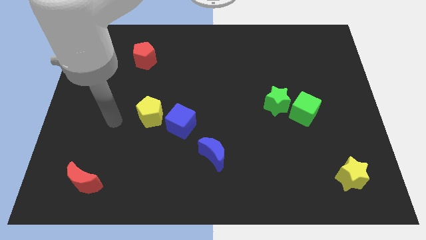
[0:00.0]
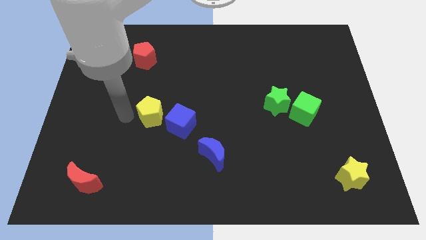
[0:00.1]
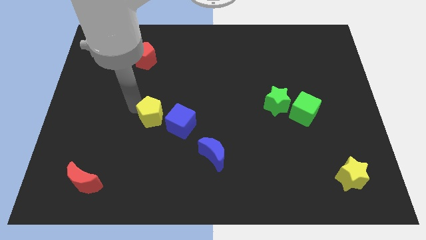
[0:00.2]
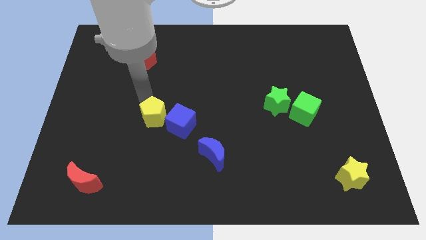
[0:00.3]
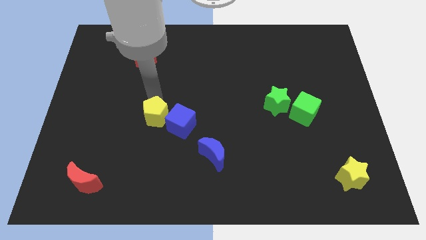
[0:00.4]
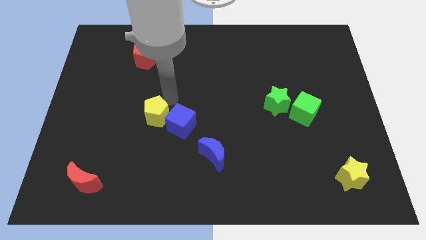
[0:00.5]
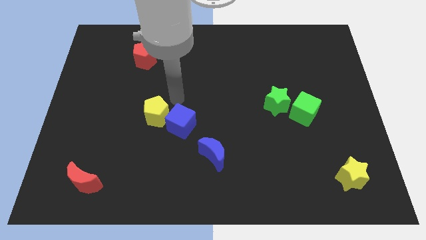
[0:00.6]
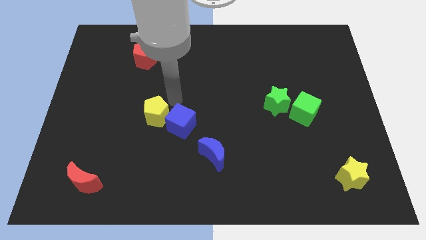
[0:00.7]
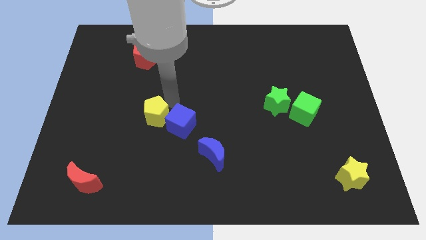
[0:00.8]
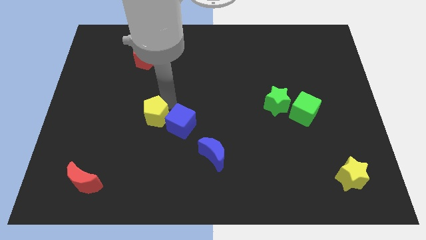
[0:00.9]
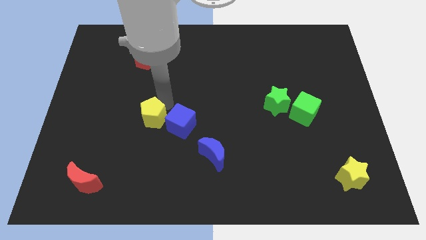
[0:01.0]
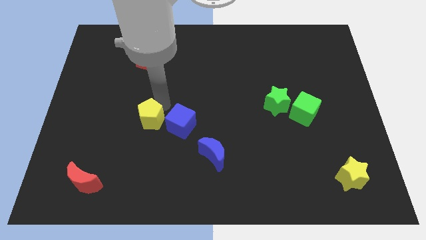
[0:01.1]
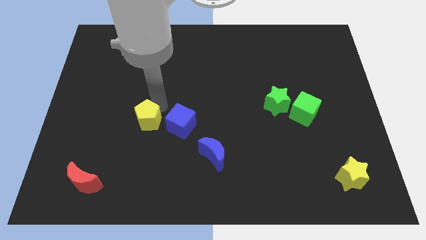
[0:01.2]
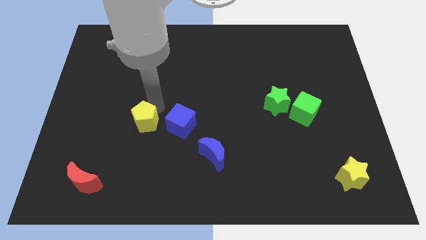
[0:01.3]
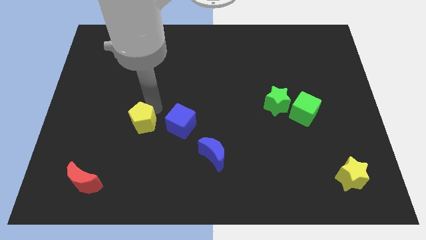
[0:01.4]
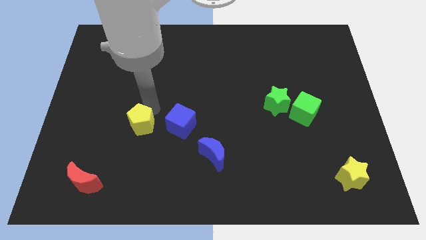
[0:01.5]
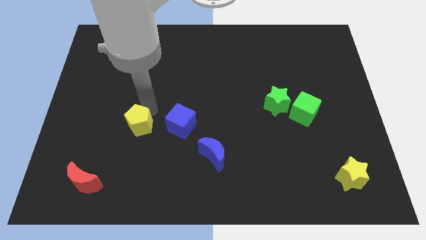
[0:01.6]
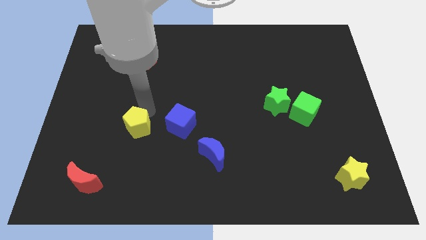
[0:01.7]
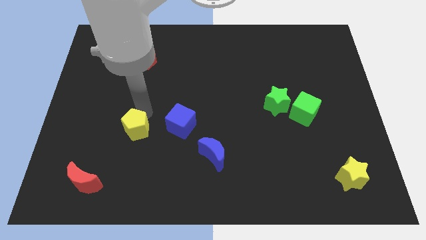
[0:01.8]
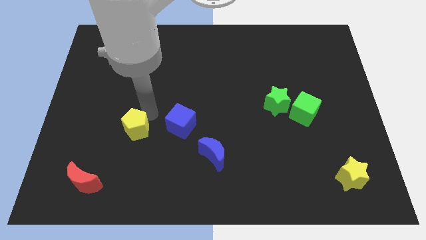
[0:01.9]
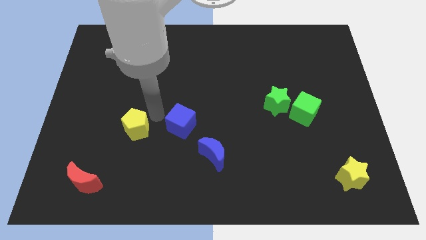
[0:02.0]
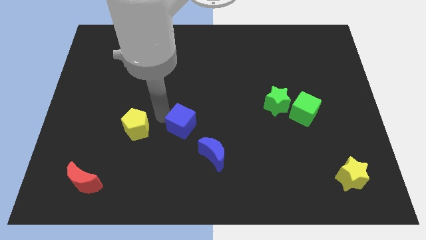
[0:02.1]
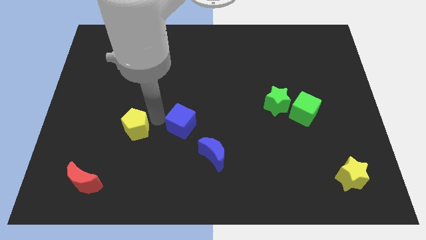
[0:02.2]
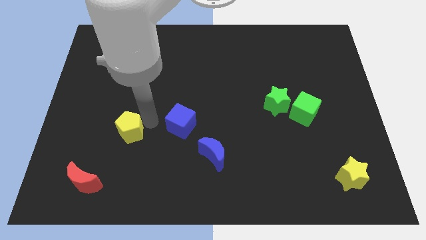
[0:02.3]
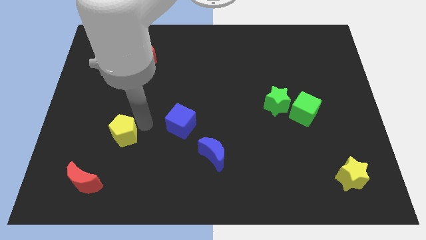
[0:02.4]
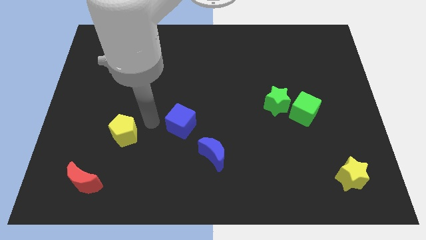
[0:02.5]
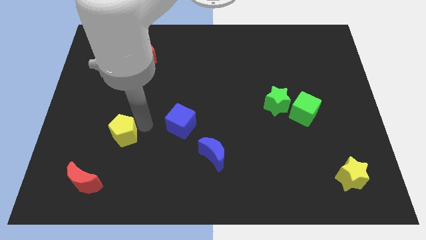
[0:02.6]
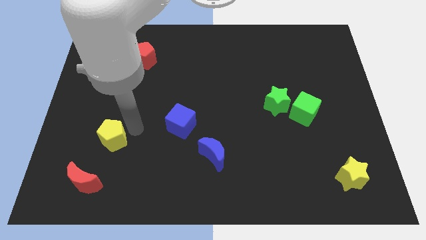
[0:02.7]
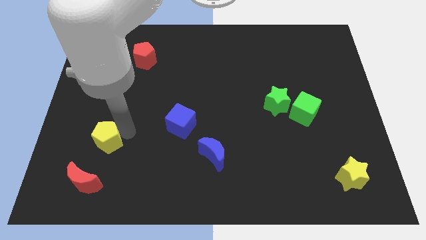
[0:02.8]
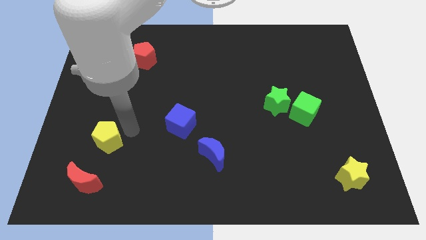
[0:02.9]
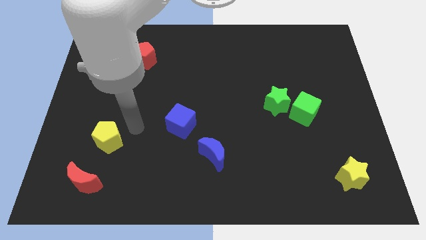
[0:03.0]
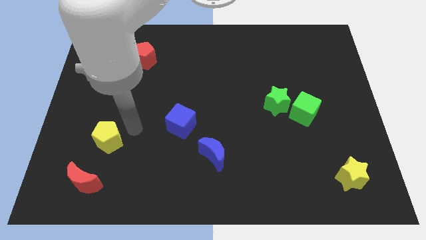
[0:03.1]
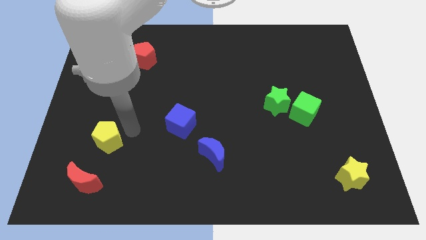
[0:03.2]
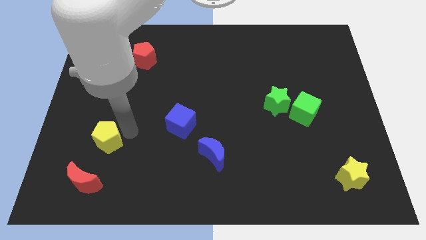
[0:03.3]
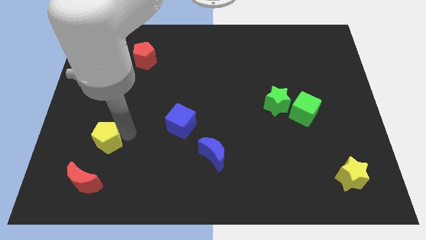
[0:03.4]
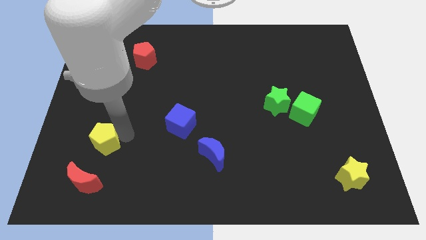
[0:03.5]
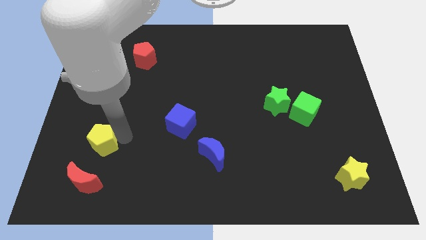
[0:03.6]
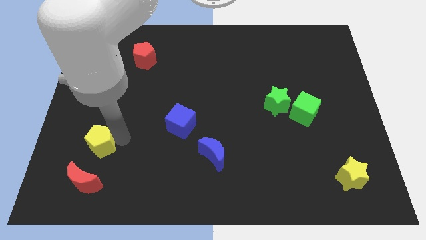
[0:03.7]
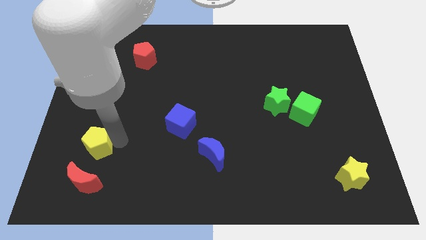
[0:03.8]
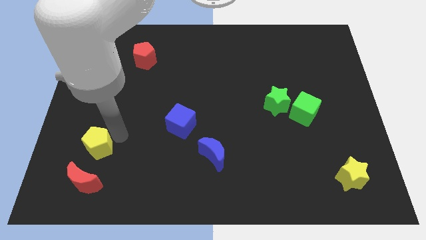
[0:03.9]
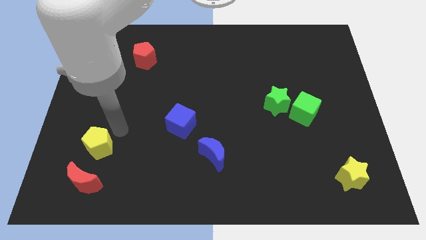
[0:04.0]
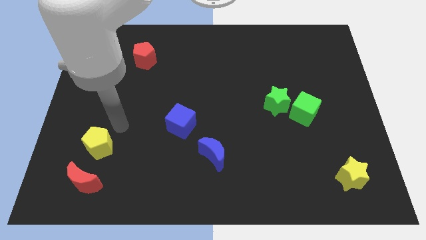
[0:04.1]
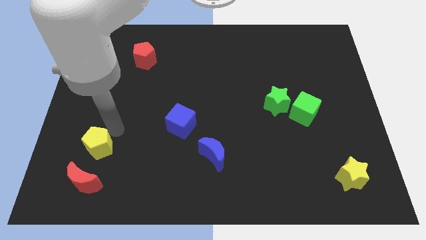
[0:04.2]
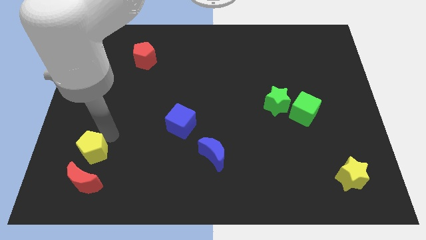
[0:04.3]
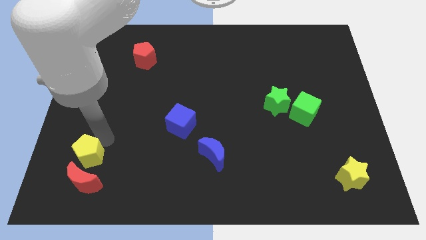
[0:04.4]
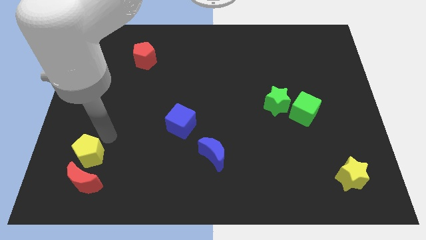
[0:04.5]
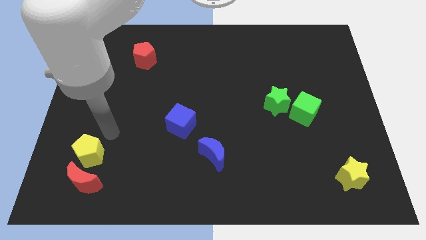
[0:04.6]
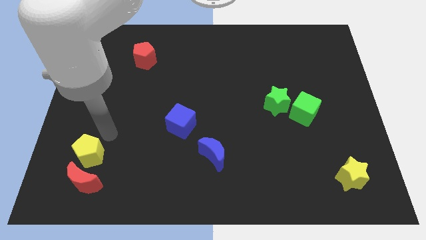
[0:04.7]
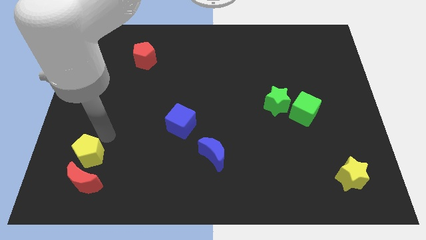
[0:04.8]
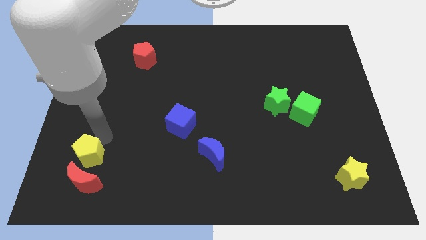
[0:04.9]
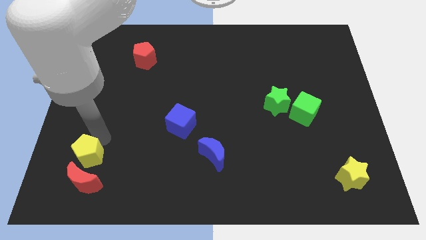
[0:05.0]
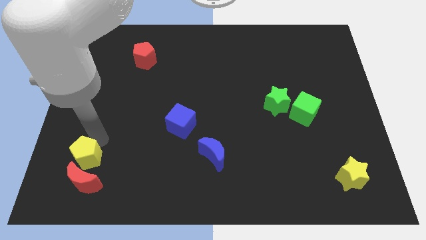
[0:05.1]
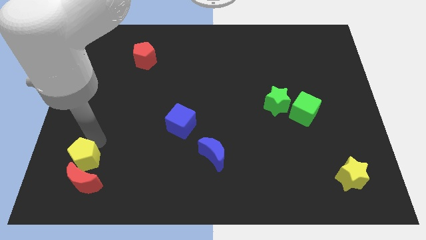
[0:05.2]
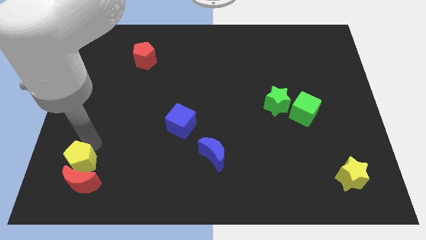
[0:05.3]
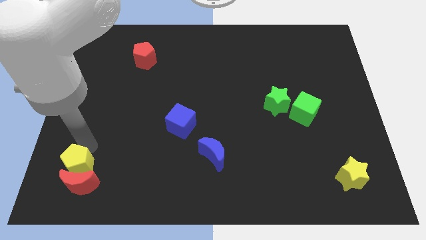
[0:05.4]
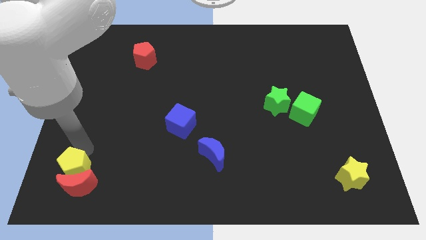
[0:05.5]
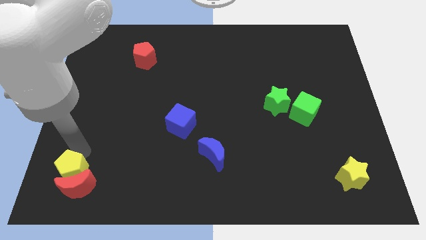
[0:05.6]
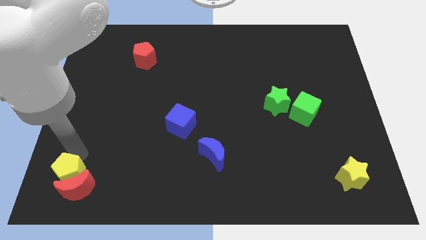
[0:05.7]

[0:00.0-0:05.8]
put the yellow pentagon to the bottom left of the board

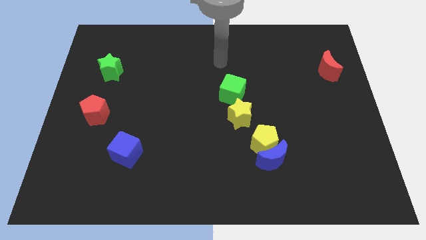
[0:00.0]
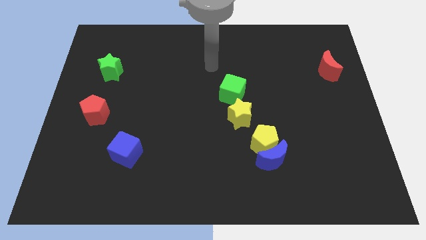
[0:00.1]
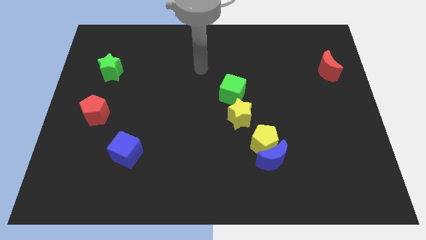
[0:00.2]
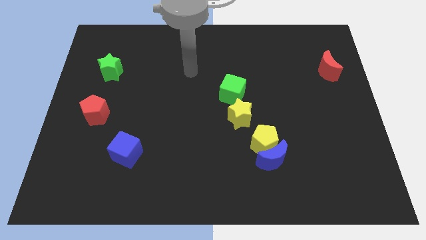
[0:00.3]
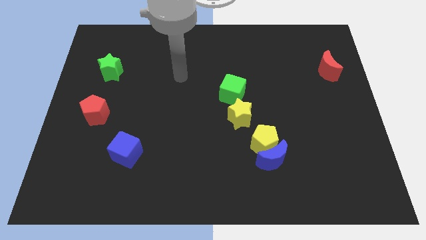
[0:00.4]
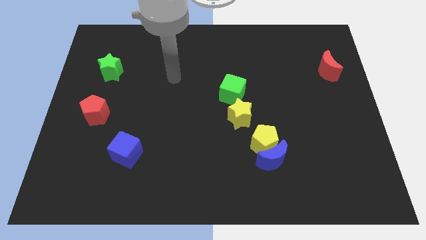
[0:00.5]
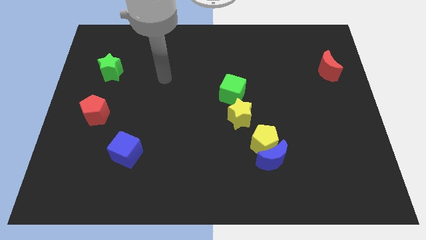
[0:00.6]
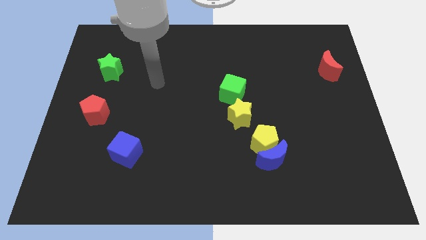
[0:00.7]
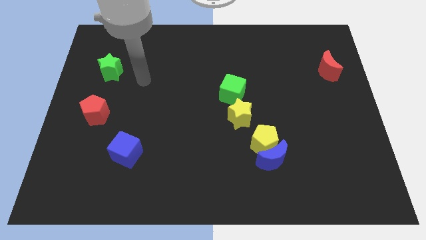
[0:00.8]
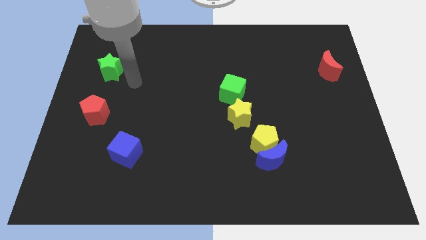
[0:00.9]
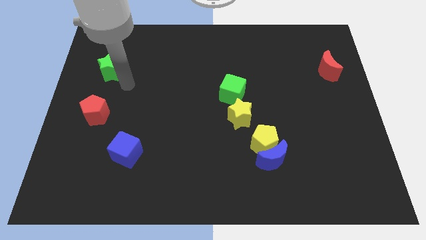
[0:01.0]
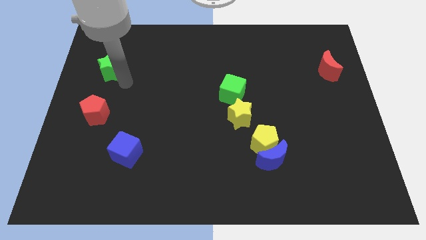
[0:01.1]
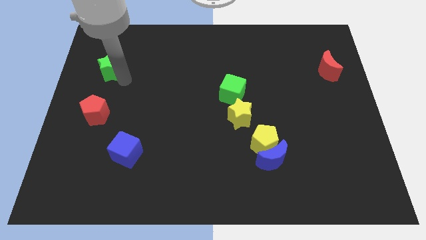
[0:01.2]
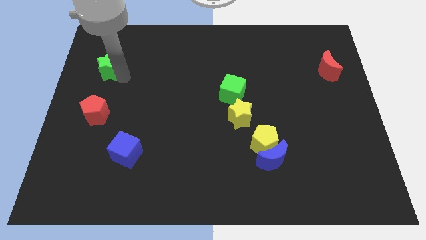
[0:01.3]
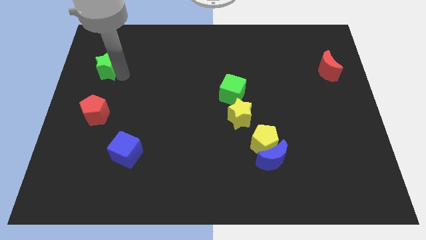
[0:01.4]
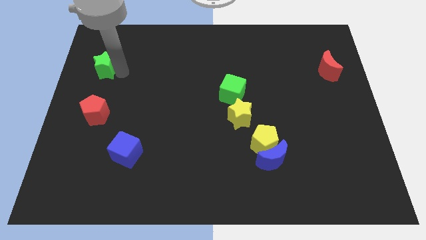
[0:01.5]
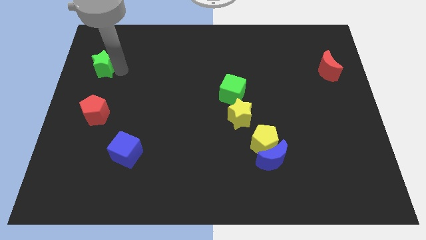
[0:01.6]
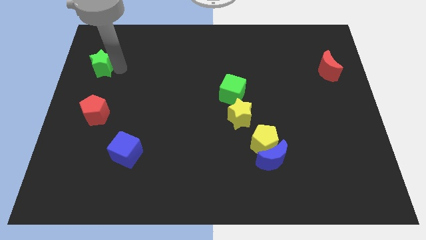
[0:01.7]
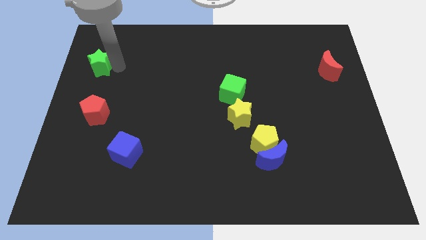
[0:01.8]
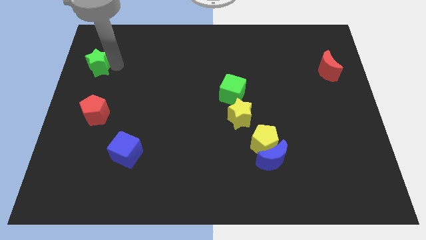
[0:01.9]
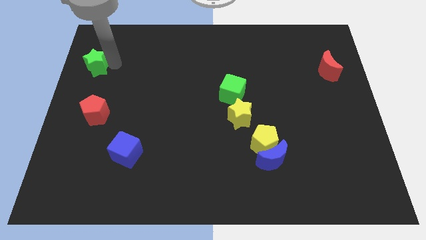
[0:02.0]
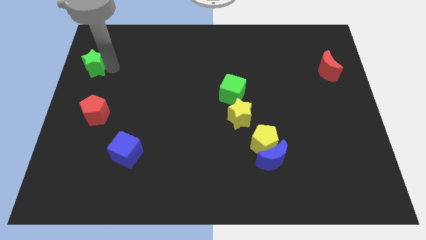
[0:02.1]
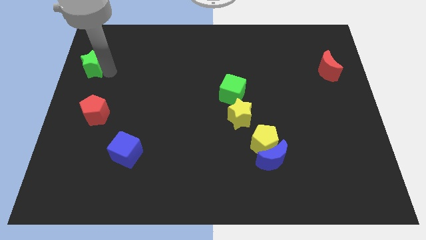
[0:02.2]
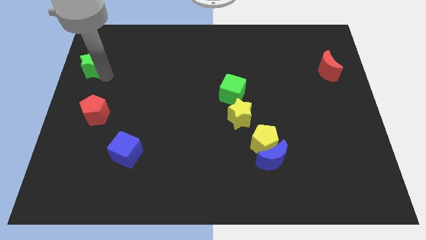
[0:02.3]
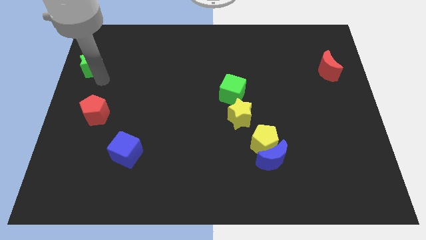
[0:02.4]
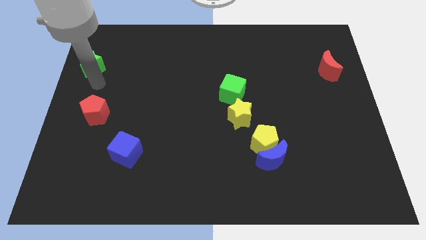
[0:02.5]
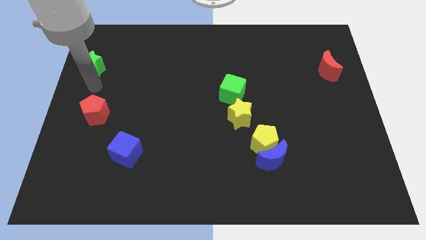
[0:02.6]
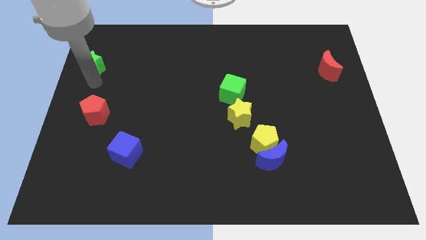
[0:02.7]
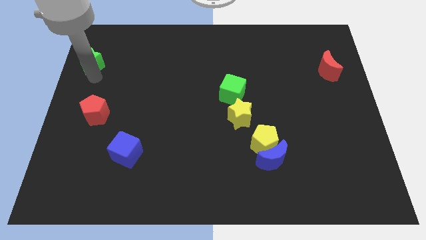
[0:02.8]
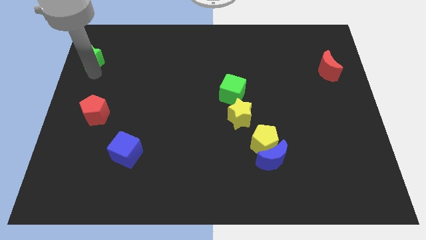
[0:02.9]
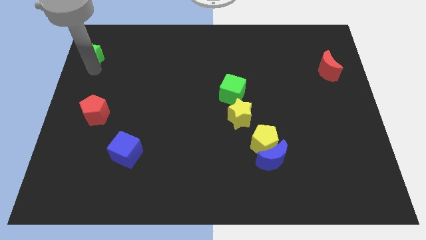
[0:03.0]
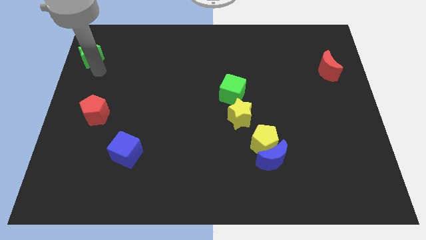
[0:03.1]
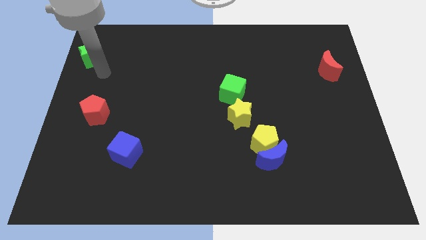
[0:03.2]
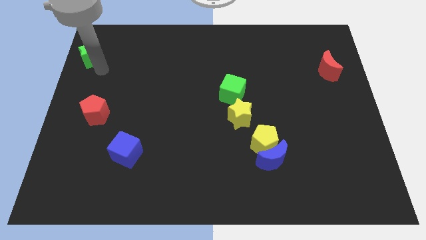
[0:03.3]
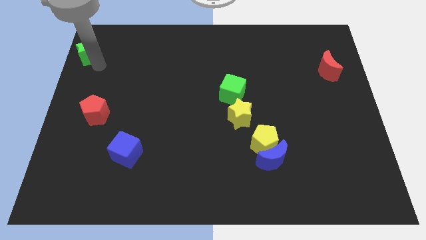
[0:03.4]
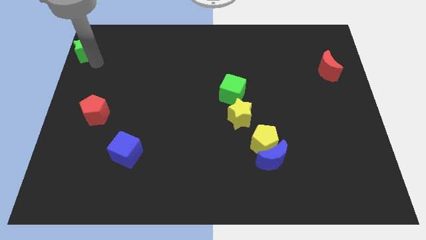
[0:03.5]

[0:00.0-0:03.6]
push the green star to the top left corner
